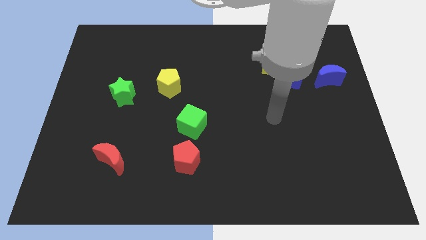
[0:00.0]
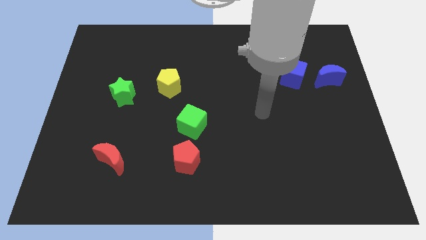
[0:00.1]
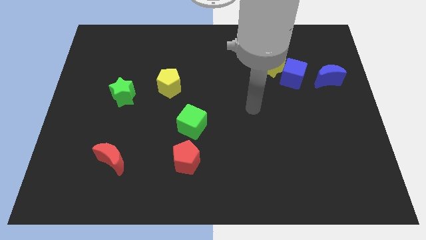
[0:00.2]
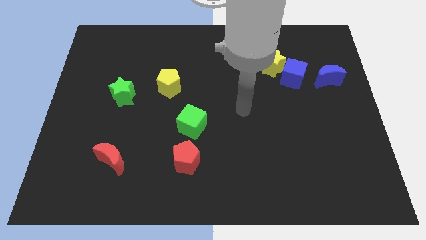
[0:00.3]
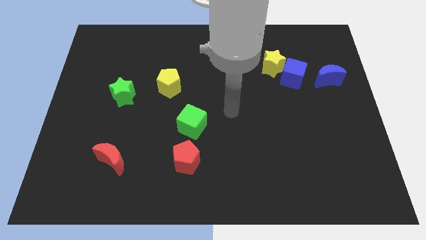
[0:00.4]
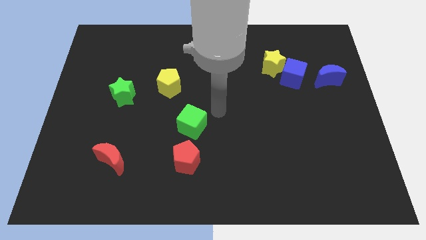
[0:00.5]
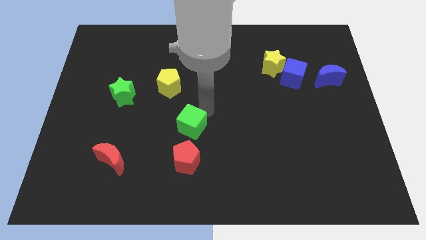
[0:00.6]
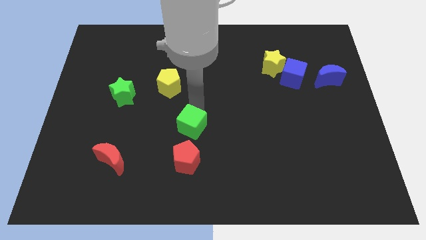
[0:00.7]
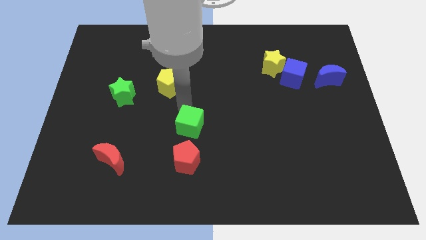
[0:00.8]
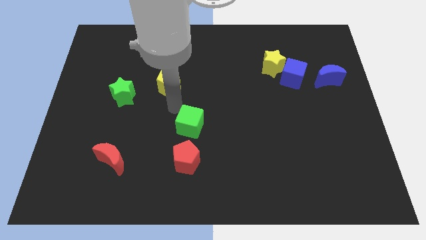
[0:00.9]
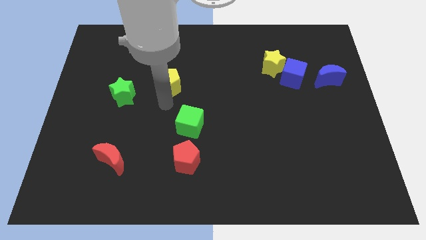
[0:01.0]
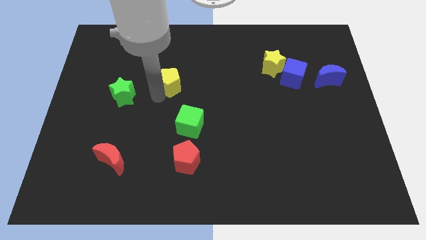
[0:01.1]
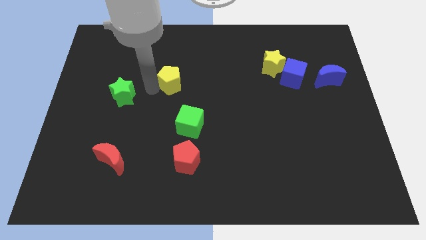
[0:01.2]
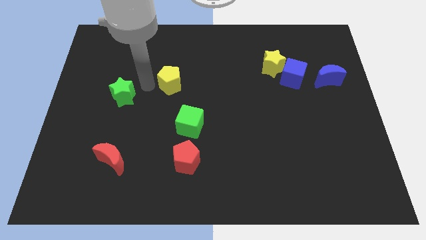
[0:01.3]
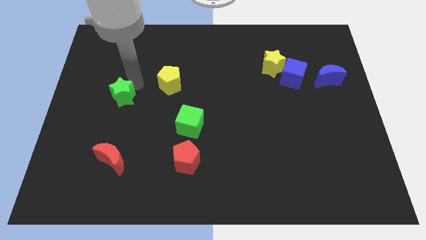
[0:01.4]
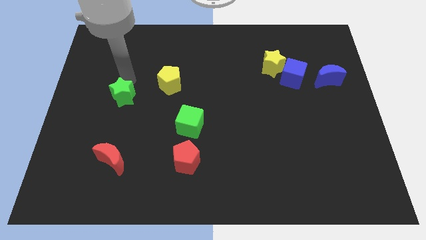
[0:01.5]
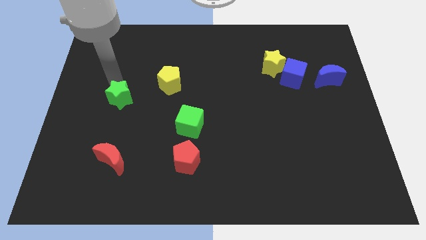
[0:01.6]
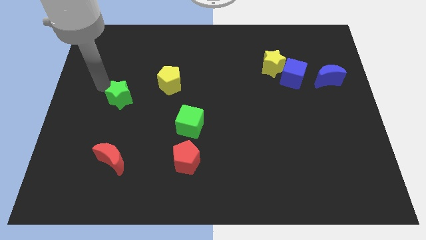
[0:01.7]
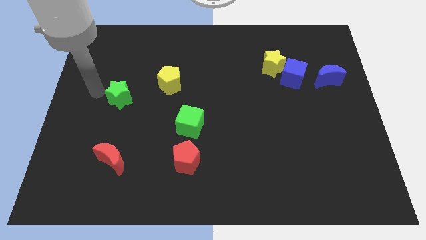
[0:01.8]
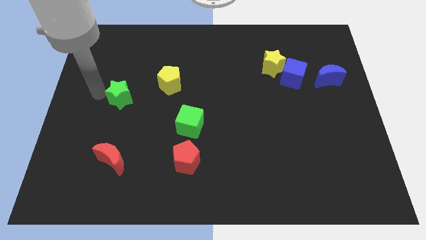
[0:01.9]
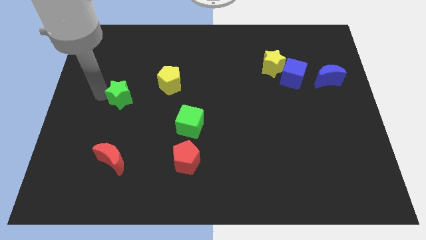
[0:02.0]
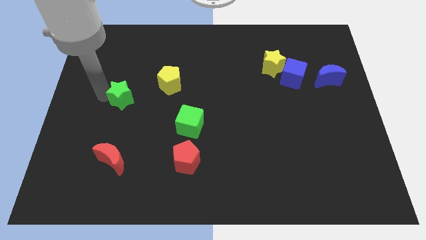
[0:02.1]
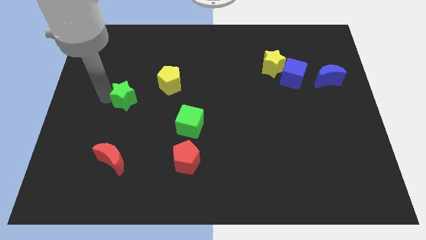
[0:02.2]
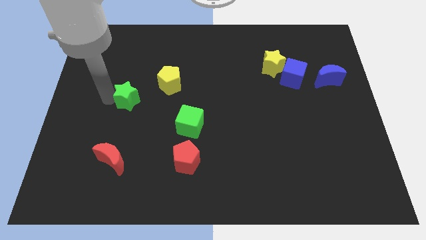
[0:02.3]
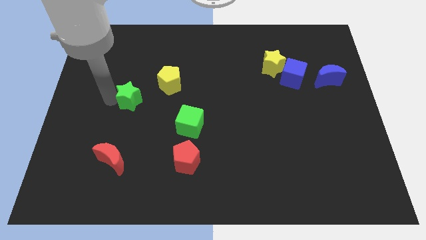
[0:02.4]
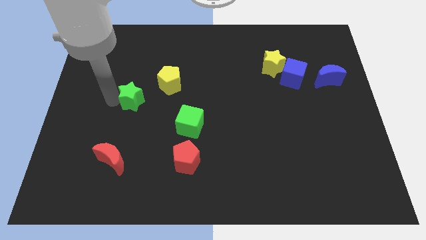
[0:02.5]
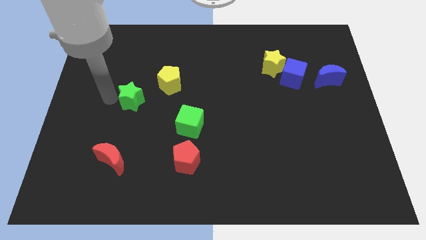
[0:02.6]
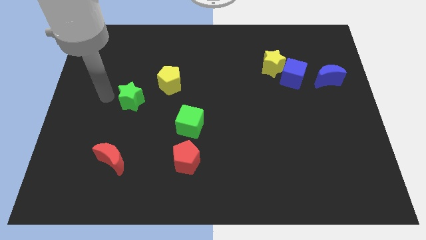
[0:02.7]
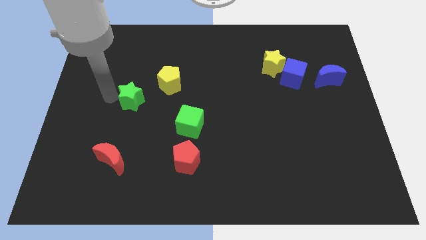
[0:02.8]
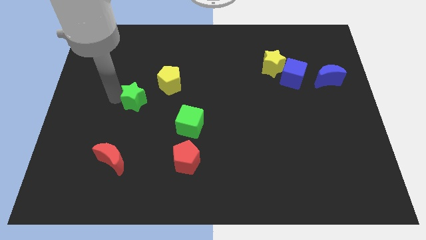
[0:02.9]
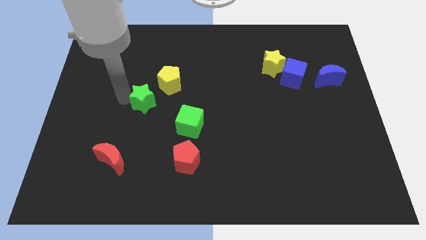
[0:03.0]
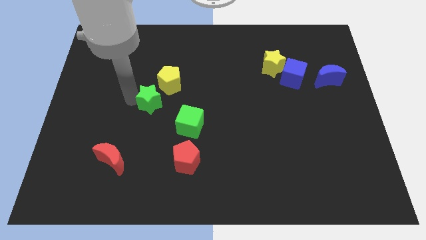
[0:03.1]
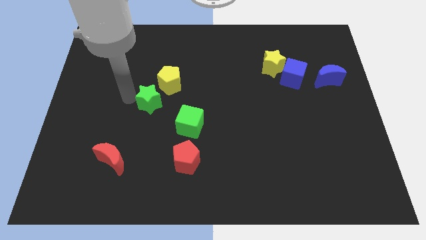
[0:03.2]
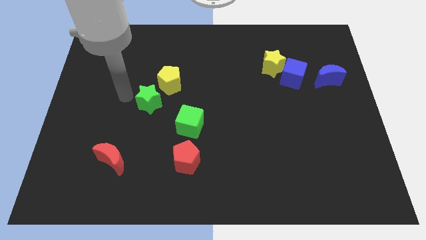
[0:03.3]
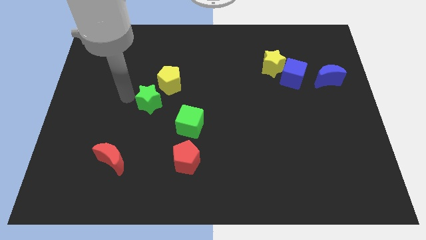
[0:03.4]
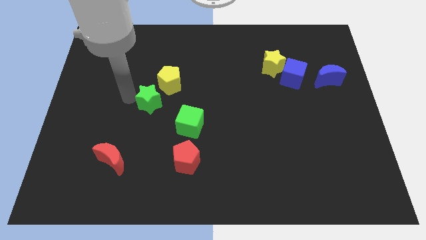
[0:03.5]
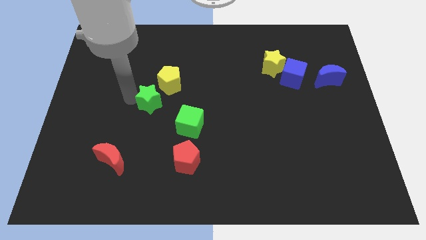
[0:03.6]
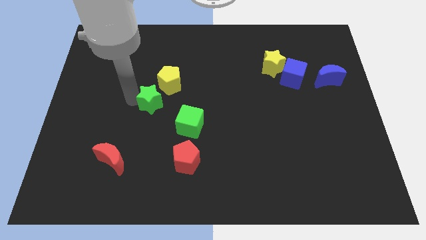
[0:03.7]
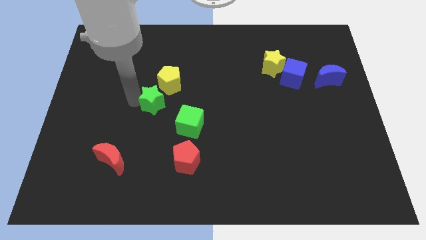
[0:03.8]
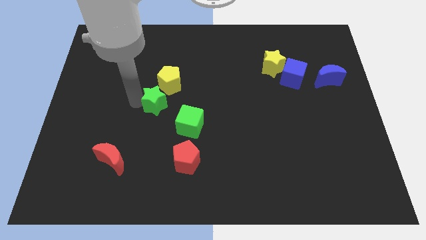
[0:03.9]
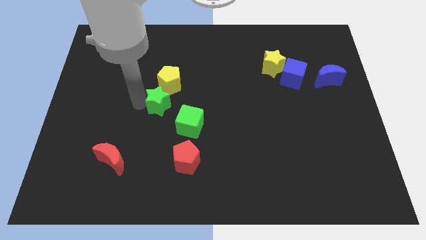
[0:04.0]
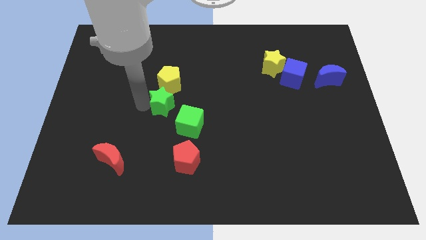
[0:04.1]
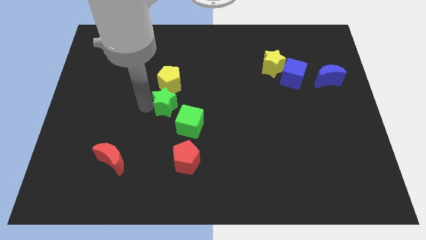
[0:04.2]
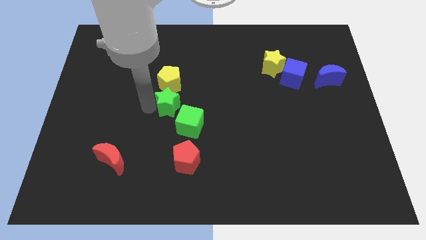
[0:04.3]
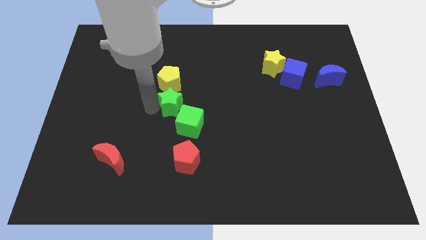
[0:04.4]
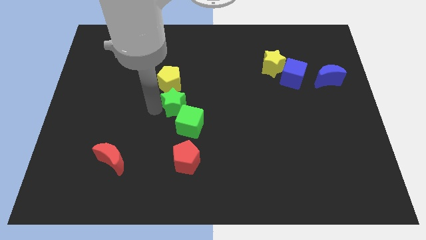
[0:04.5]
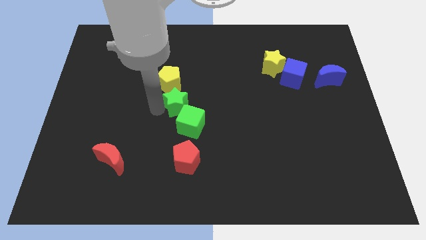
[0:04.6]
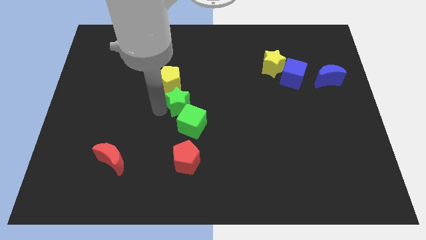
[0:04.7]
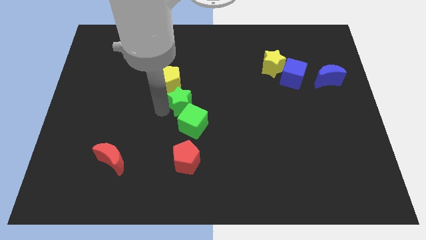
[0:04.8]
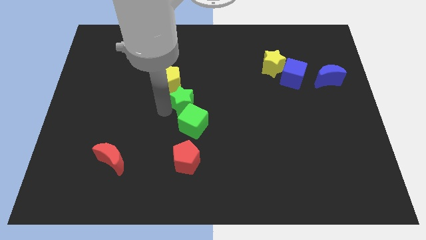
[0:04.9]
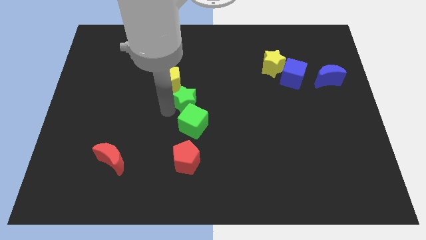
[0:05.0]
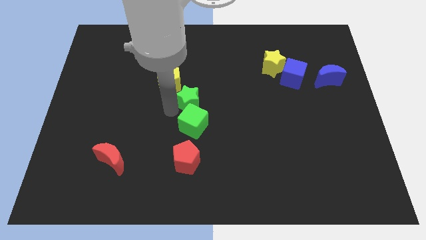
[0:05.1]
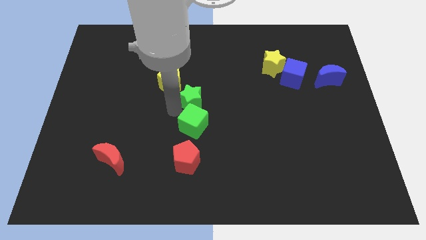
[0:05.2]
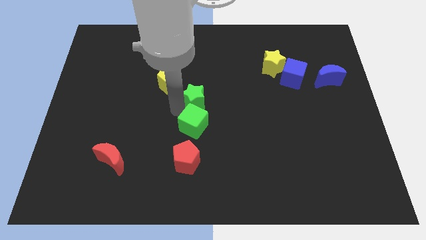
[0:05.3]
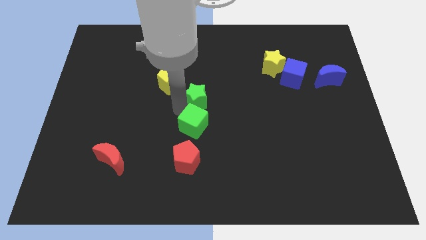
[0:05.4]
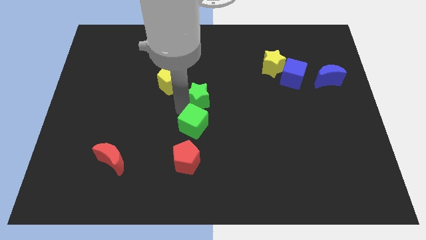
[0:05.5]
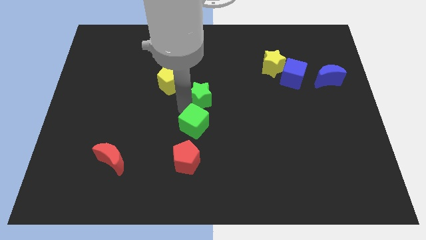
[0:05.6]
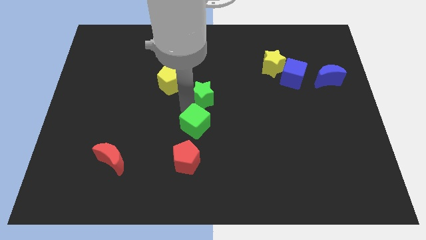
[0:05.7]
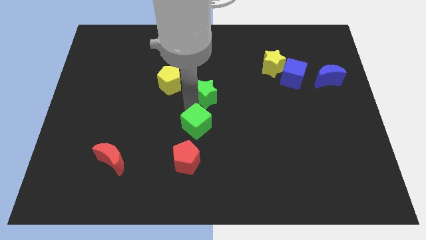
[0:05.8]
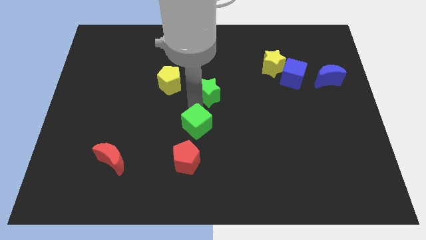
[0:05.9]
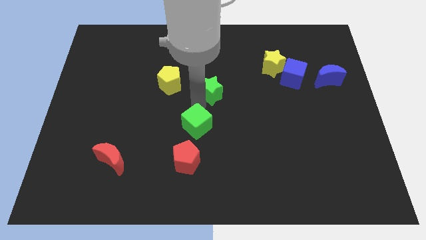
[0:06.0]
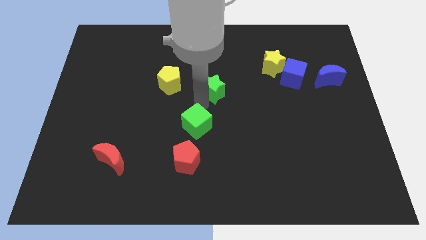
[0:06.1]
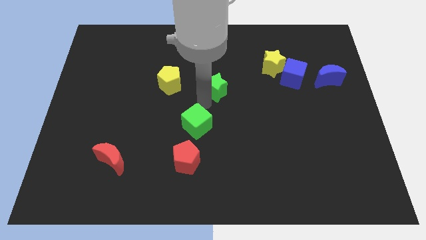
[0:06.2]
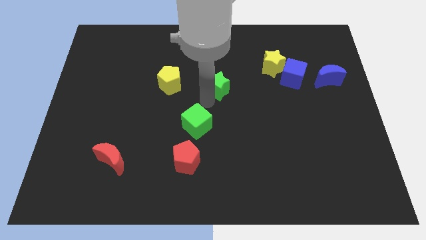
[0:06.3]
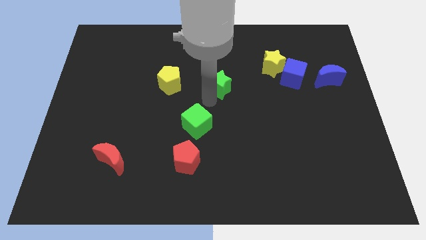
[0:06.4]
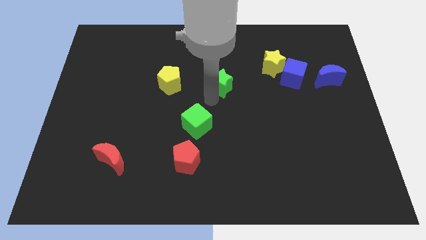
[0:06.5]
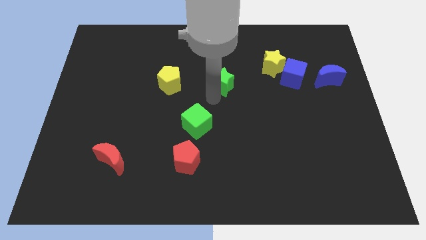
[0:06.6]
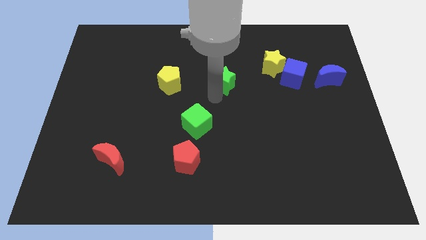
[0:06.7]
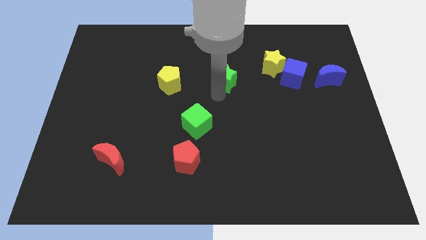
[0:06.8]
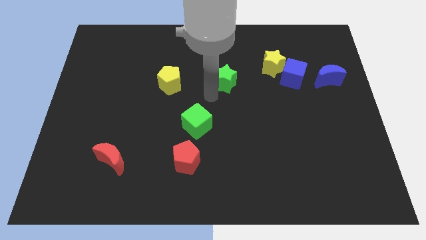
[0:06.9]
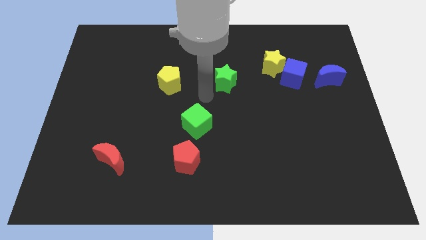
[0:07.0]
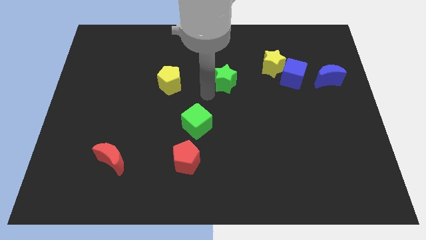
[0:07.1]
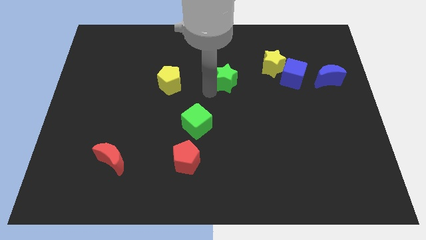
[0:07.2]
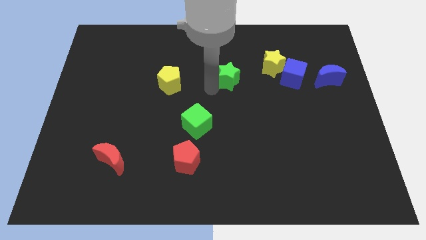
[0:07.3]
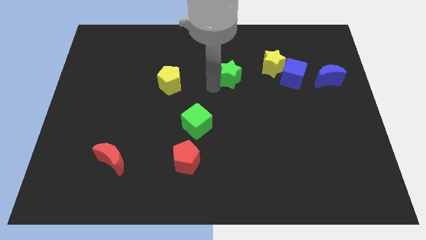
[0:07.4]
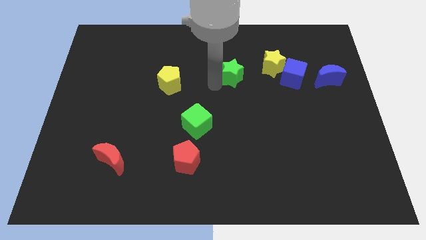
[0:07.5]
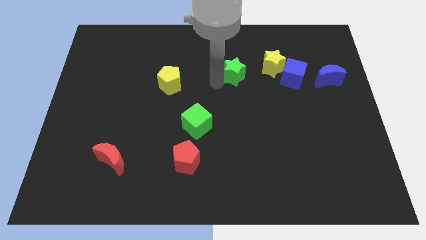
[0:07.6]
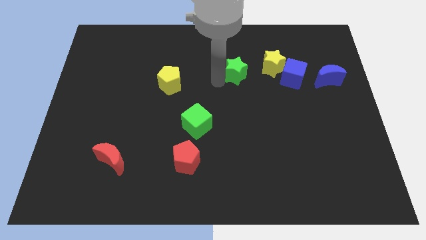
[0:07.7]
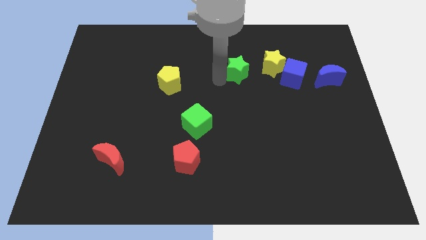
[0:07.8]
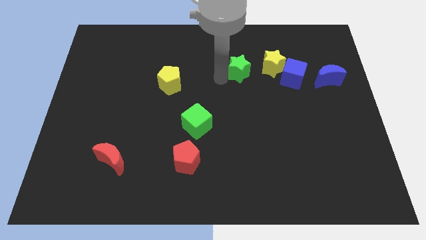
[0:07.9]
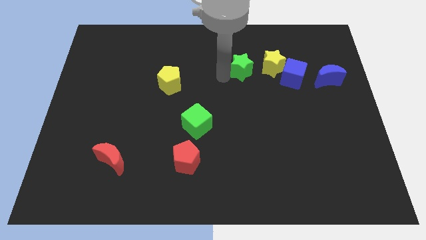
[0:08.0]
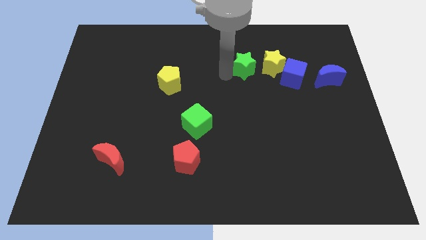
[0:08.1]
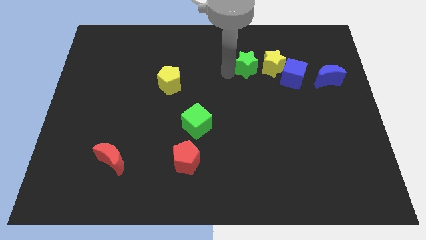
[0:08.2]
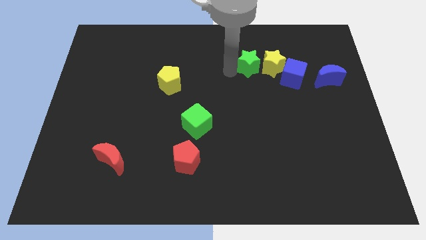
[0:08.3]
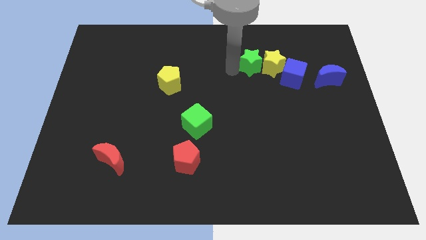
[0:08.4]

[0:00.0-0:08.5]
slide the green star to the top left of the blue cube
